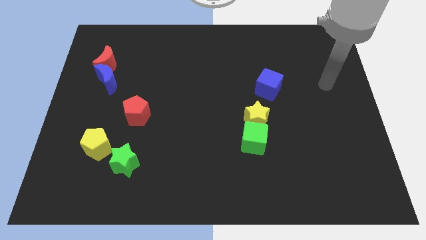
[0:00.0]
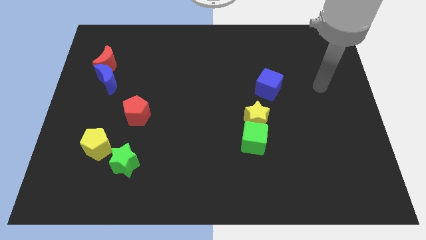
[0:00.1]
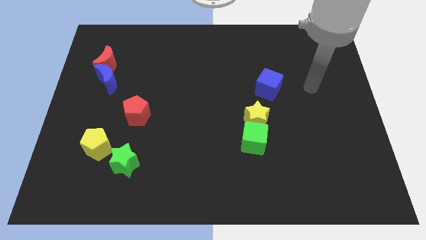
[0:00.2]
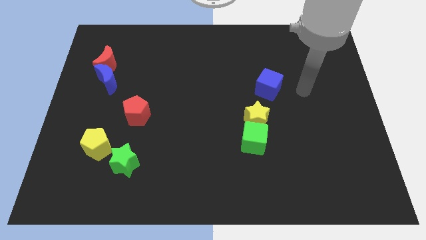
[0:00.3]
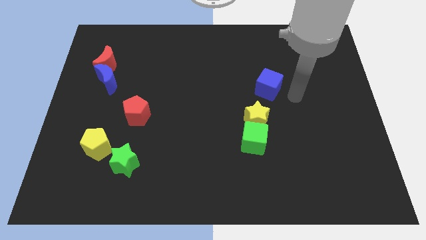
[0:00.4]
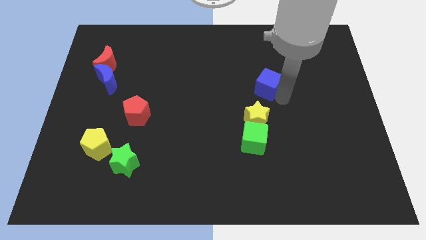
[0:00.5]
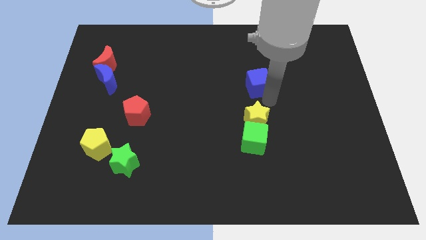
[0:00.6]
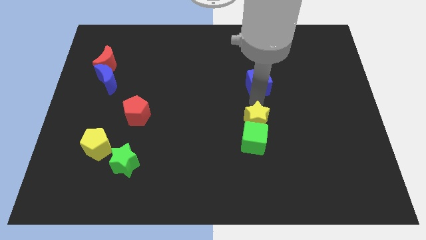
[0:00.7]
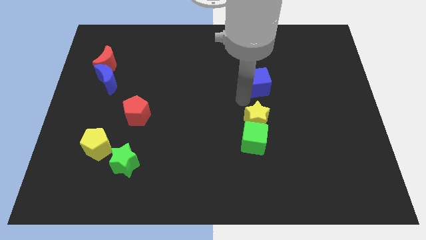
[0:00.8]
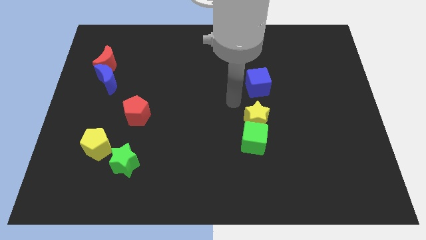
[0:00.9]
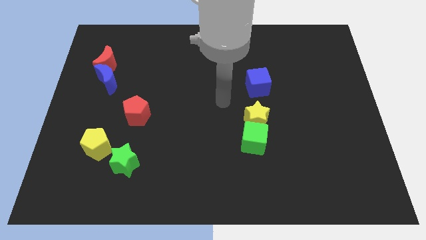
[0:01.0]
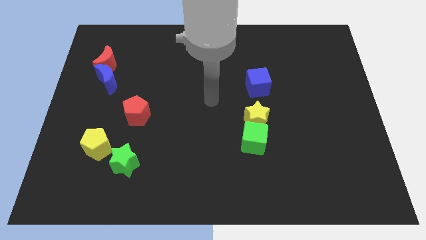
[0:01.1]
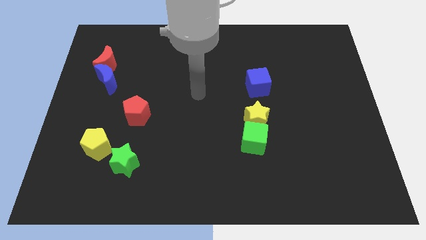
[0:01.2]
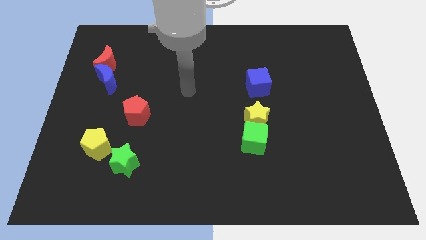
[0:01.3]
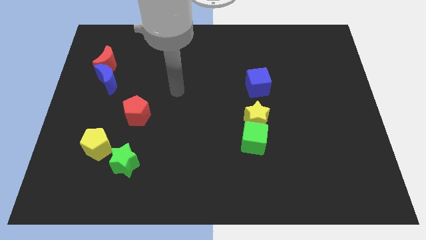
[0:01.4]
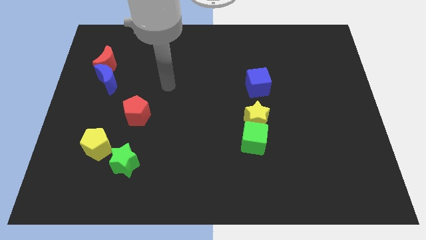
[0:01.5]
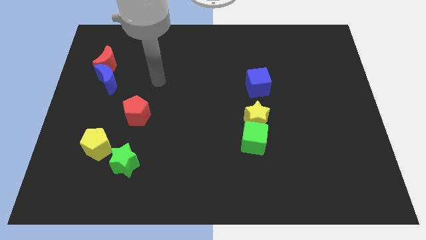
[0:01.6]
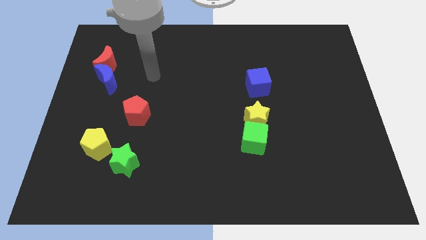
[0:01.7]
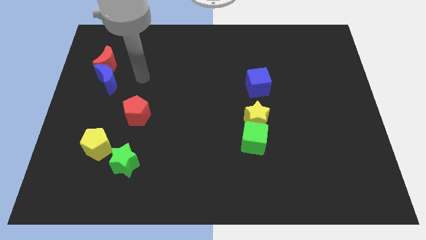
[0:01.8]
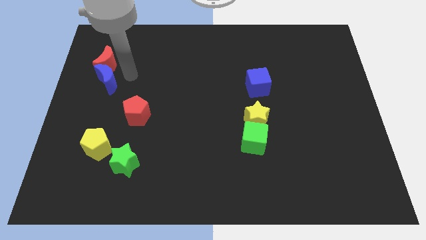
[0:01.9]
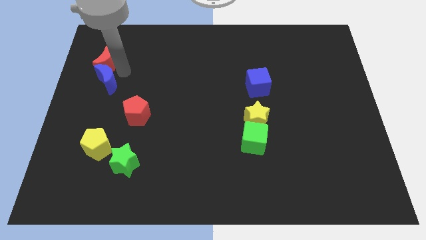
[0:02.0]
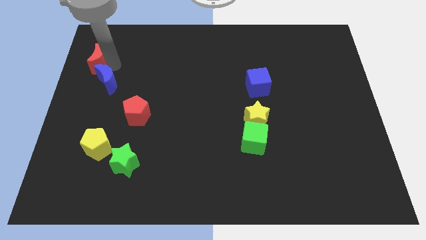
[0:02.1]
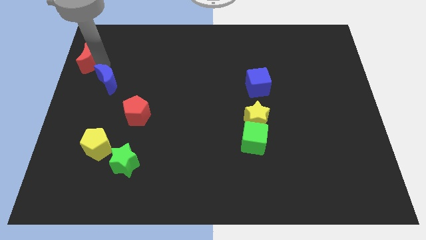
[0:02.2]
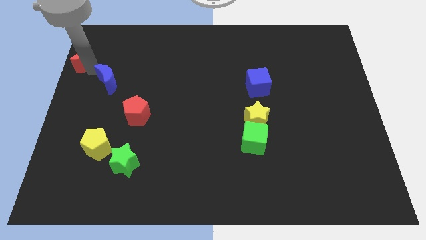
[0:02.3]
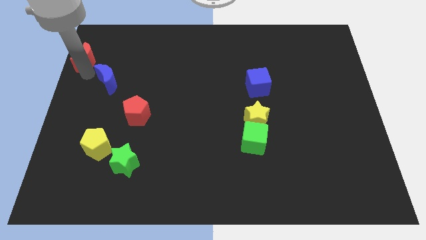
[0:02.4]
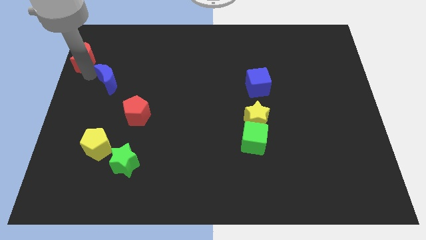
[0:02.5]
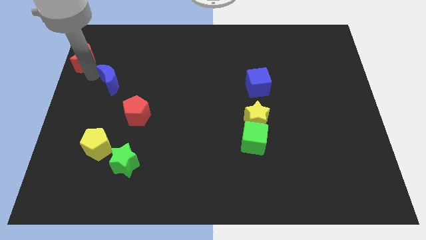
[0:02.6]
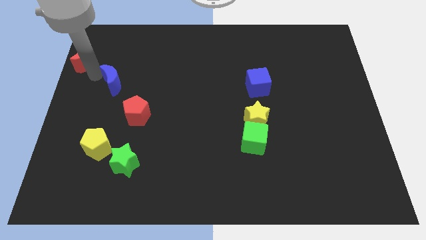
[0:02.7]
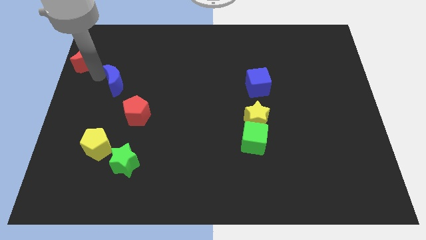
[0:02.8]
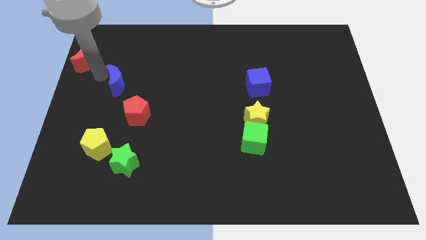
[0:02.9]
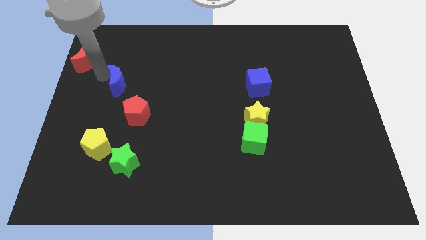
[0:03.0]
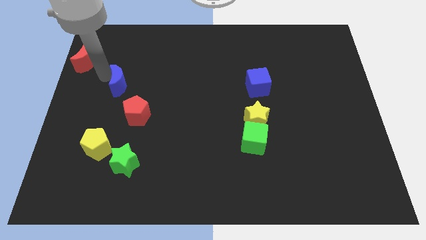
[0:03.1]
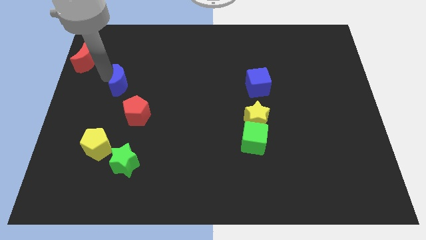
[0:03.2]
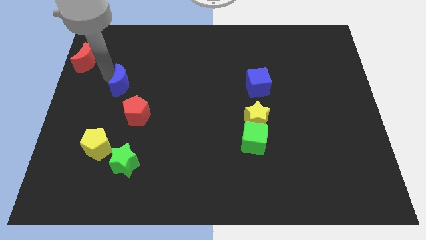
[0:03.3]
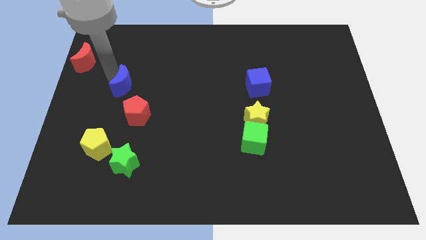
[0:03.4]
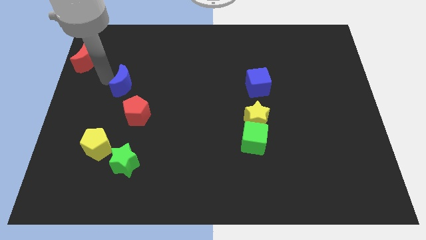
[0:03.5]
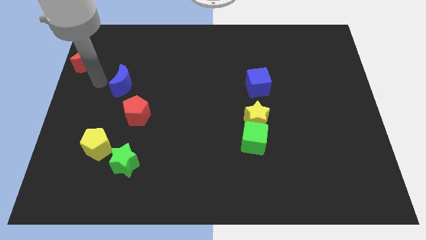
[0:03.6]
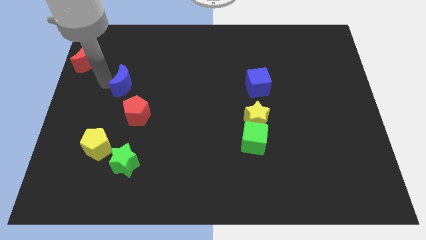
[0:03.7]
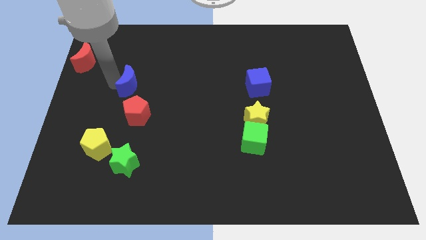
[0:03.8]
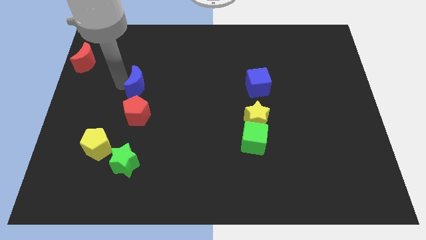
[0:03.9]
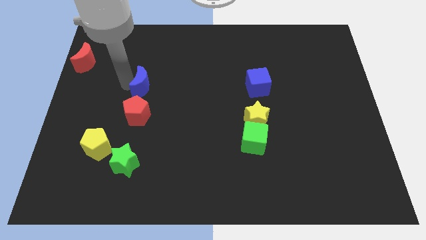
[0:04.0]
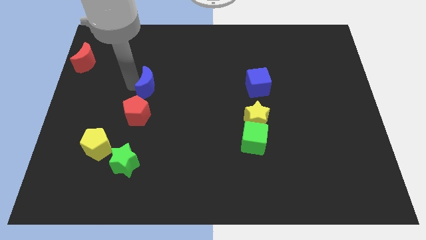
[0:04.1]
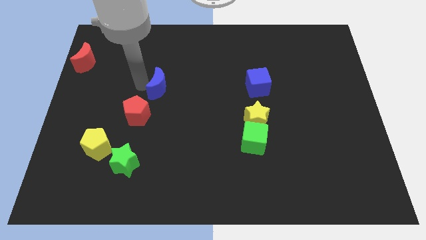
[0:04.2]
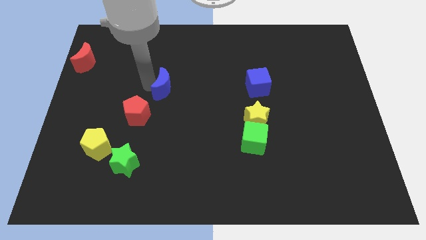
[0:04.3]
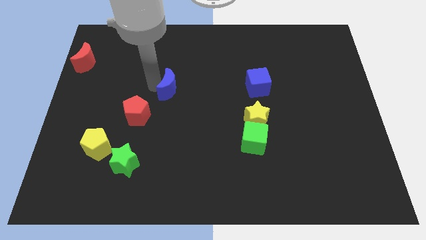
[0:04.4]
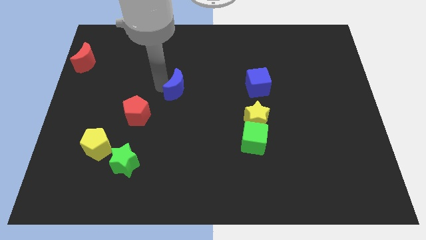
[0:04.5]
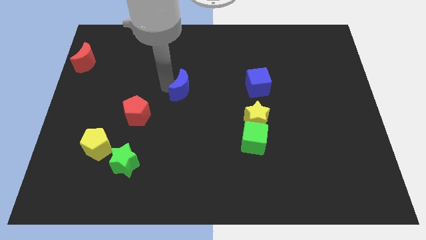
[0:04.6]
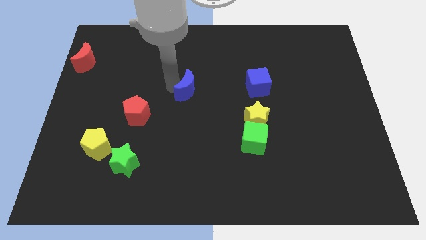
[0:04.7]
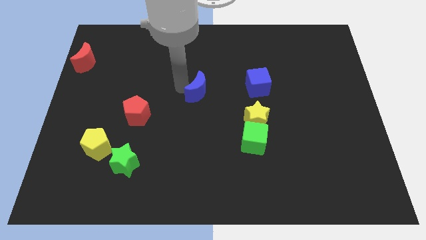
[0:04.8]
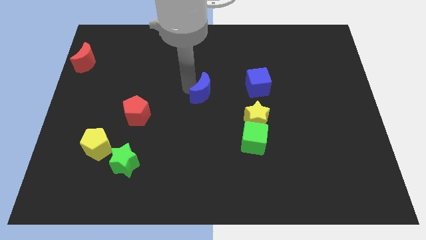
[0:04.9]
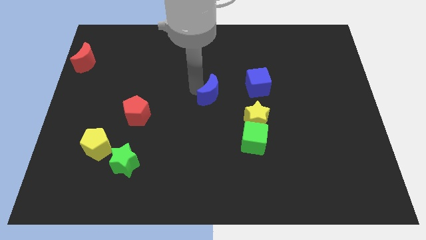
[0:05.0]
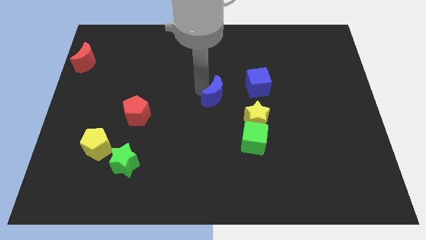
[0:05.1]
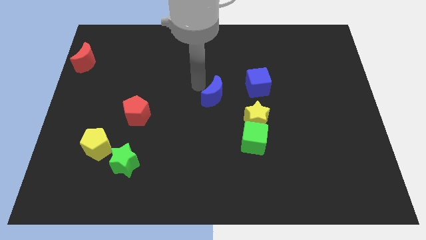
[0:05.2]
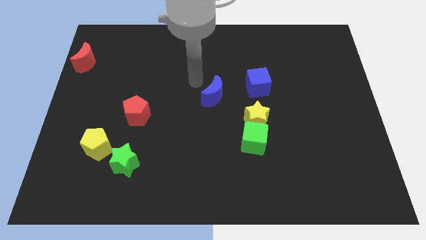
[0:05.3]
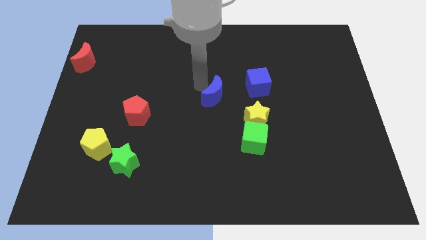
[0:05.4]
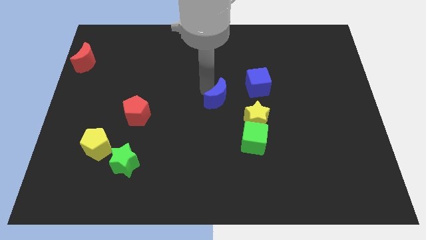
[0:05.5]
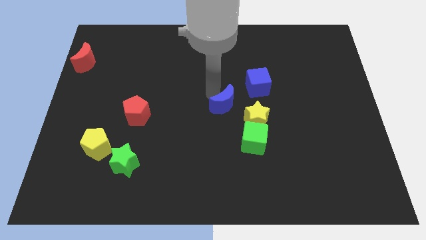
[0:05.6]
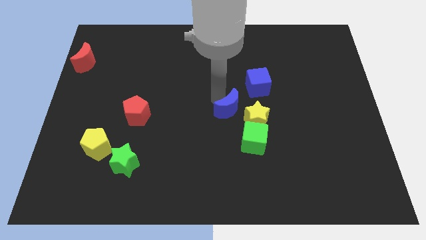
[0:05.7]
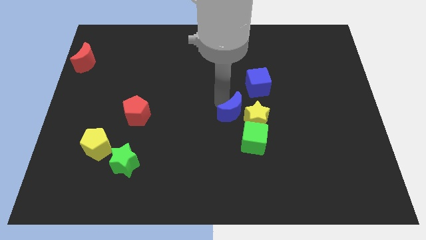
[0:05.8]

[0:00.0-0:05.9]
slide the blue moon towards the yellow star
